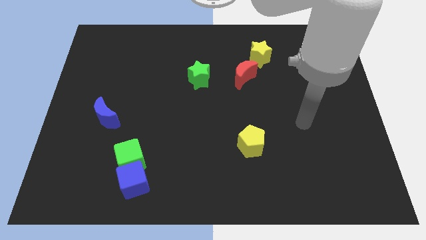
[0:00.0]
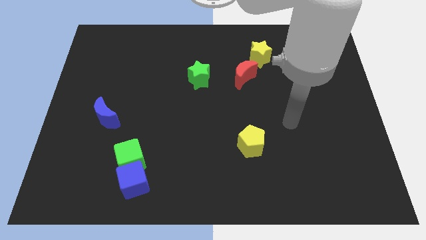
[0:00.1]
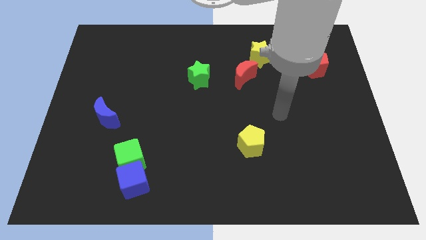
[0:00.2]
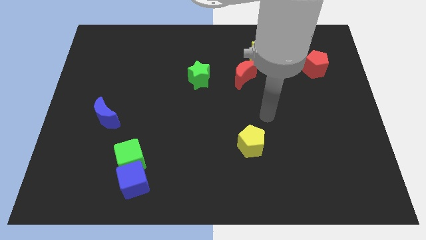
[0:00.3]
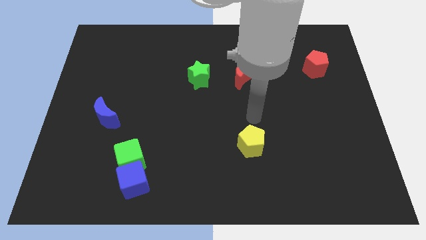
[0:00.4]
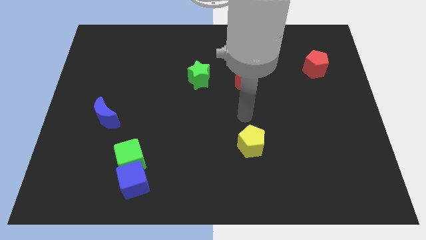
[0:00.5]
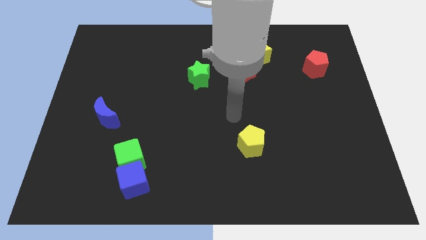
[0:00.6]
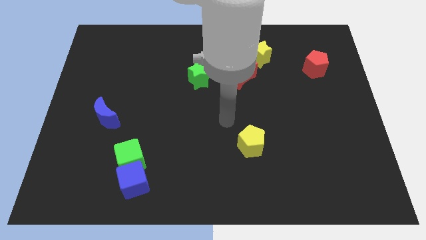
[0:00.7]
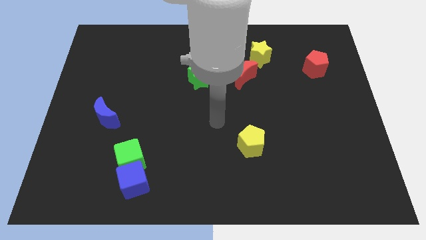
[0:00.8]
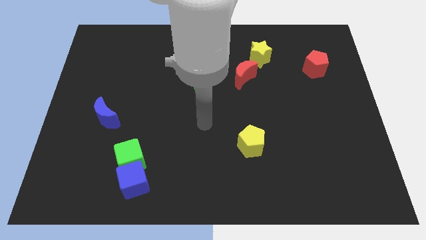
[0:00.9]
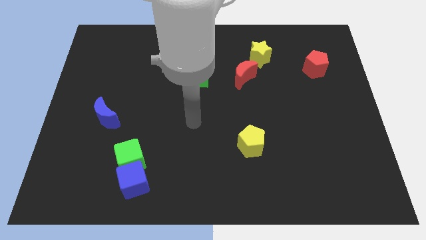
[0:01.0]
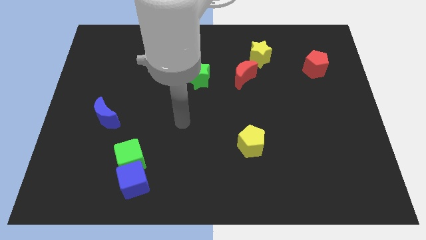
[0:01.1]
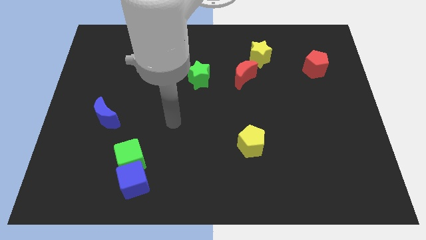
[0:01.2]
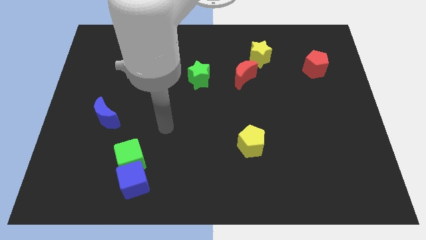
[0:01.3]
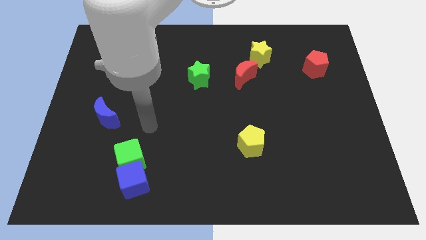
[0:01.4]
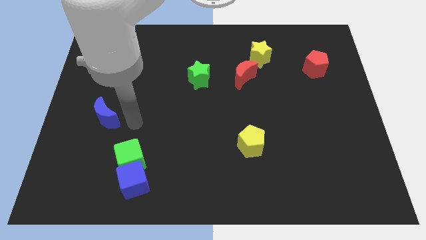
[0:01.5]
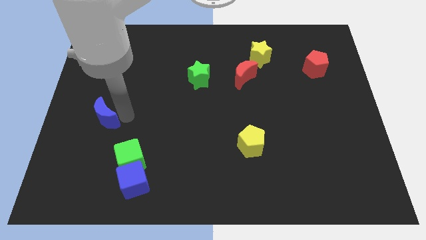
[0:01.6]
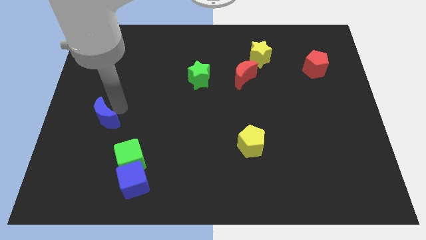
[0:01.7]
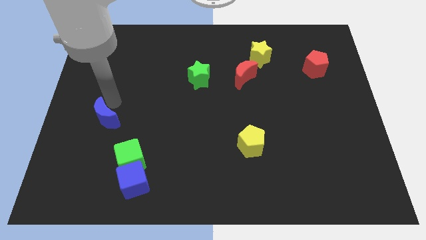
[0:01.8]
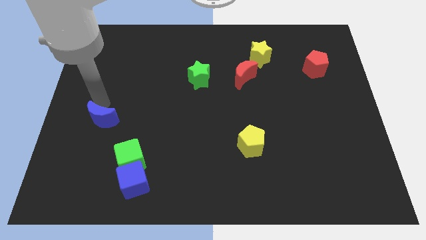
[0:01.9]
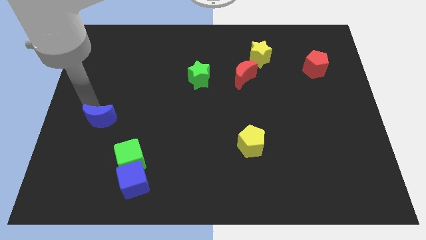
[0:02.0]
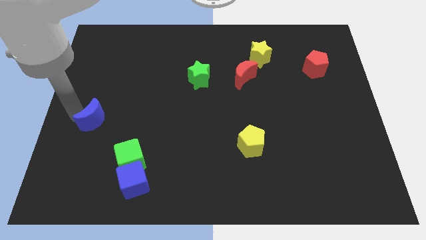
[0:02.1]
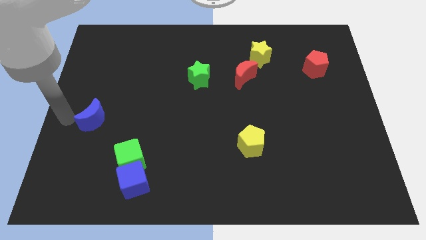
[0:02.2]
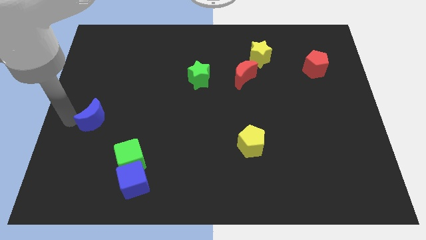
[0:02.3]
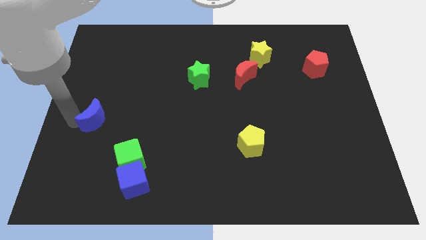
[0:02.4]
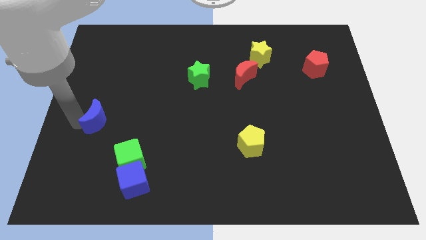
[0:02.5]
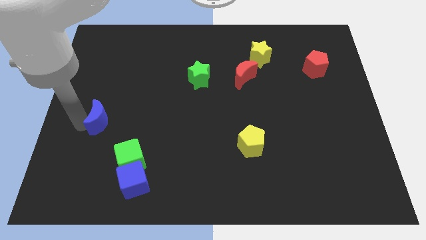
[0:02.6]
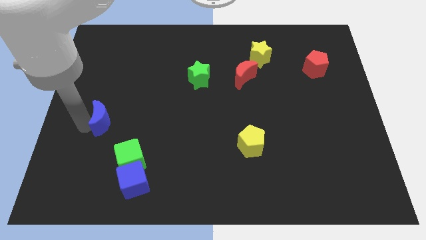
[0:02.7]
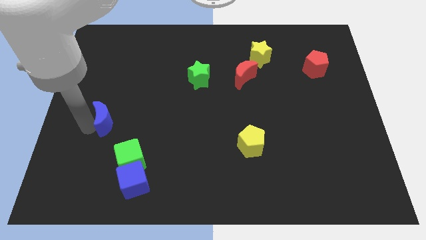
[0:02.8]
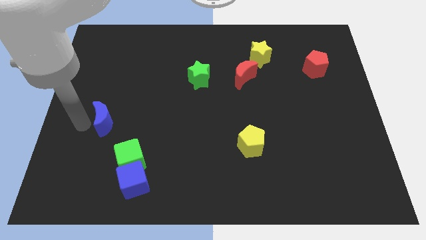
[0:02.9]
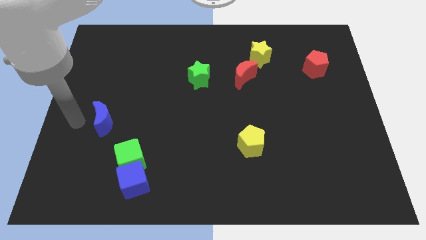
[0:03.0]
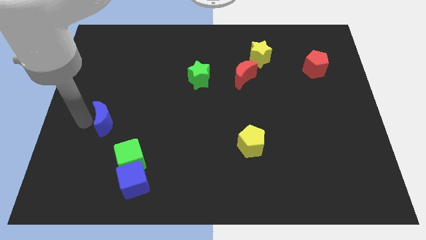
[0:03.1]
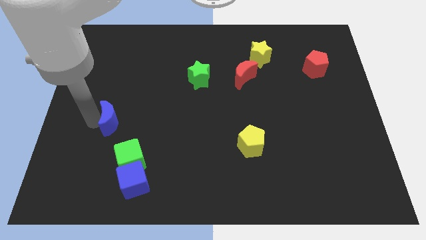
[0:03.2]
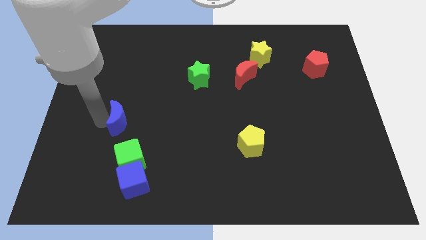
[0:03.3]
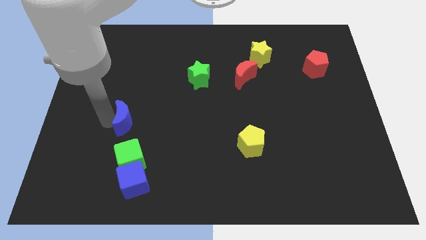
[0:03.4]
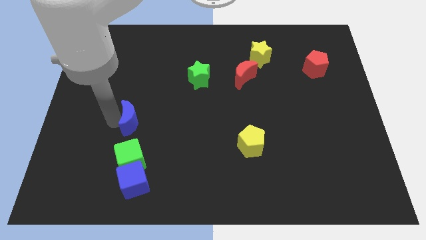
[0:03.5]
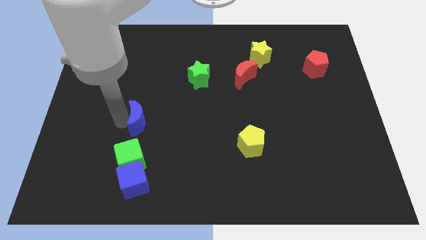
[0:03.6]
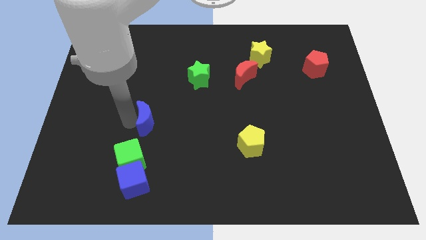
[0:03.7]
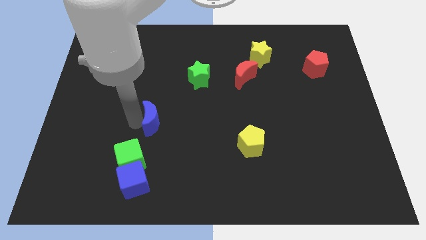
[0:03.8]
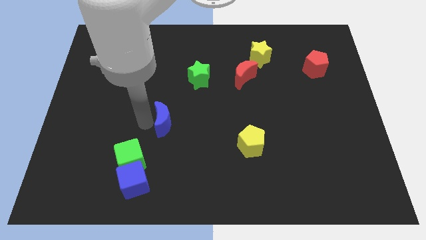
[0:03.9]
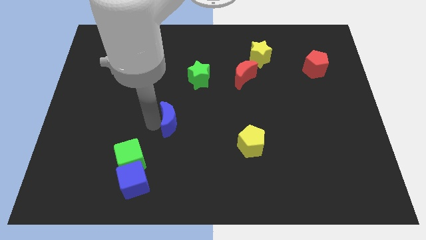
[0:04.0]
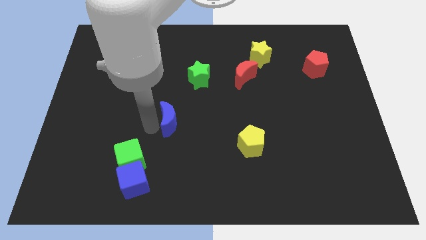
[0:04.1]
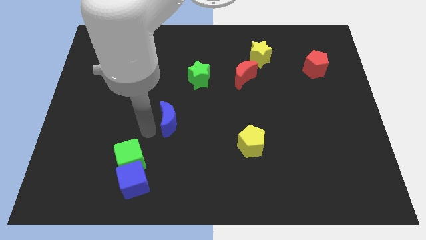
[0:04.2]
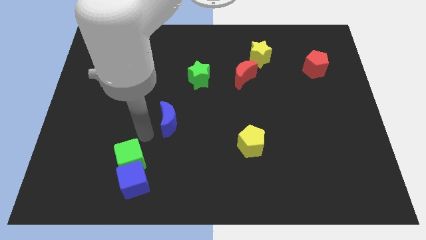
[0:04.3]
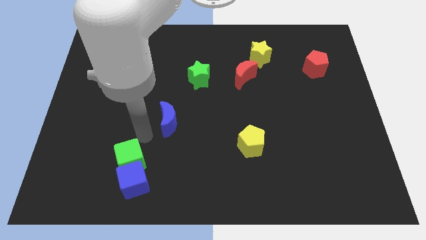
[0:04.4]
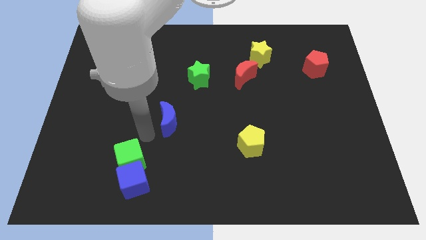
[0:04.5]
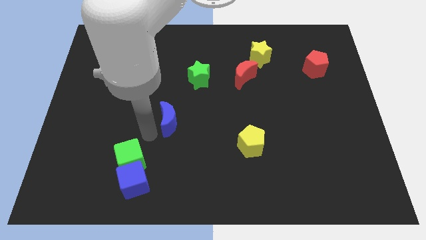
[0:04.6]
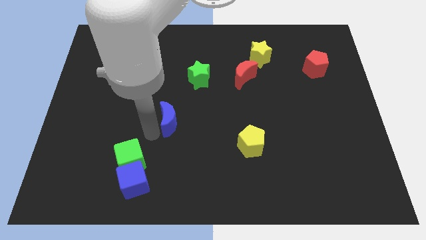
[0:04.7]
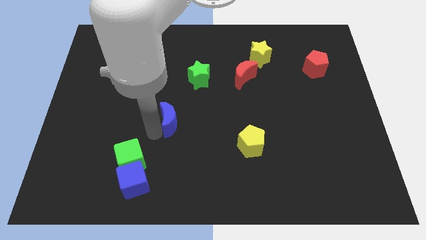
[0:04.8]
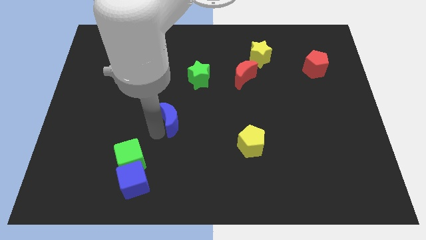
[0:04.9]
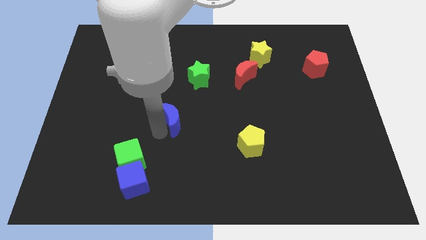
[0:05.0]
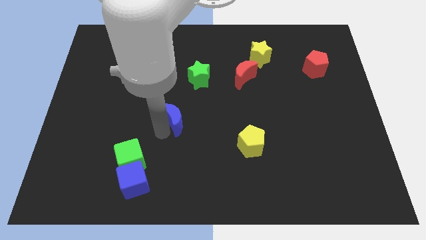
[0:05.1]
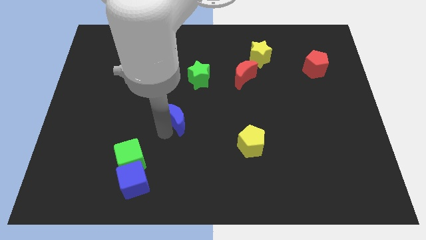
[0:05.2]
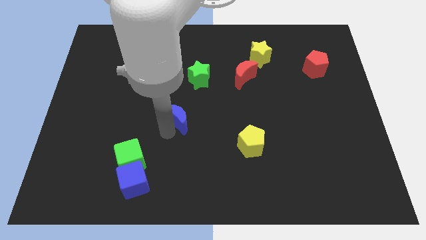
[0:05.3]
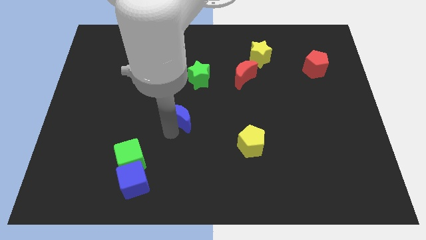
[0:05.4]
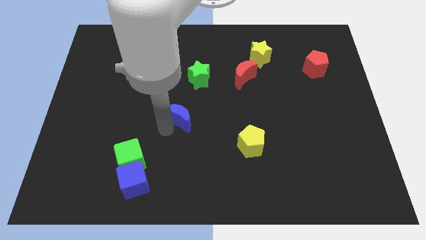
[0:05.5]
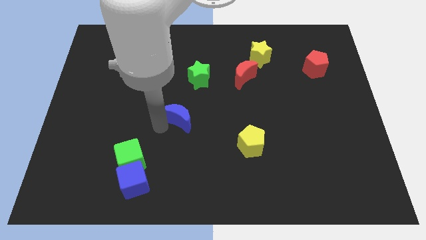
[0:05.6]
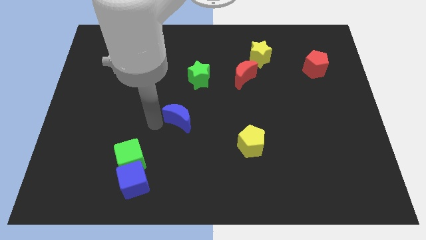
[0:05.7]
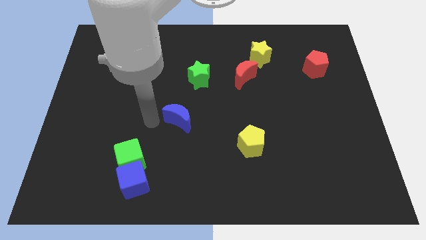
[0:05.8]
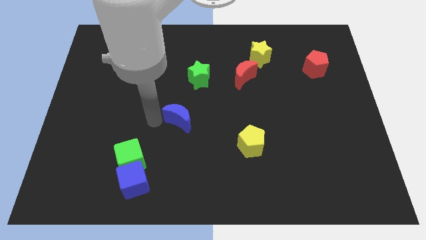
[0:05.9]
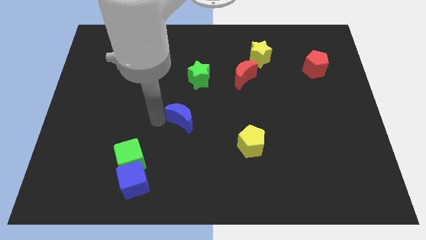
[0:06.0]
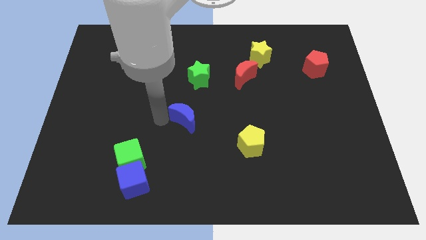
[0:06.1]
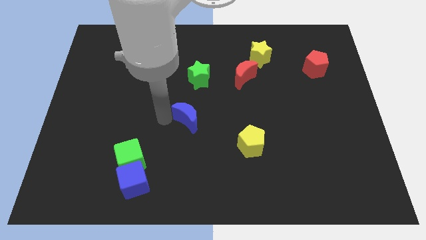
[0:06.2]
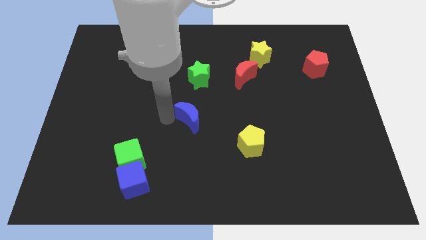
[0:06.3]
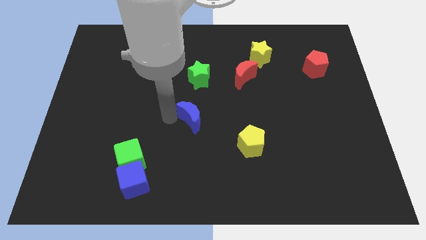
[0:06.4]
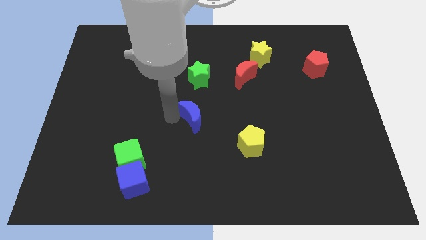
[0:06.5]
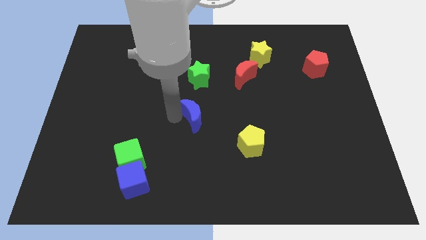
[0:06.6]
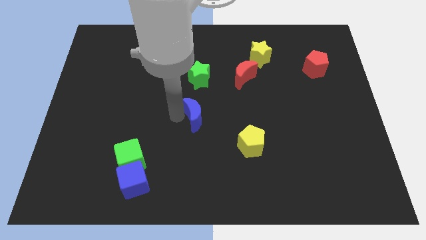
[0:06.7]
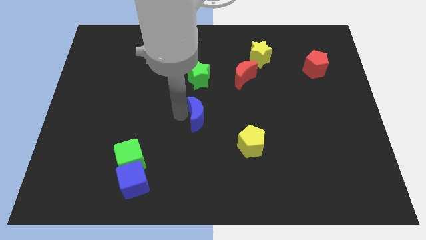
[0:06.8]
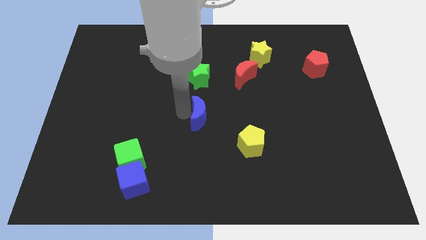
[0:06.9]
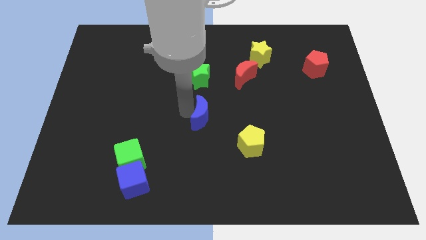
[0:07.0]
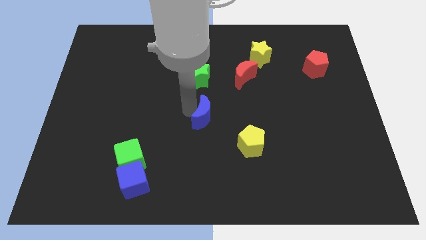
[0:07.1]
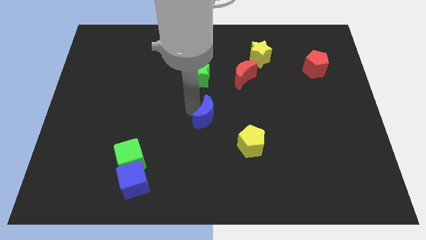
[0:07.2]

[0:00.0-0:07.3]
put the blue moon diagonally up and to the left of the yellow pentagon
